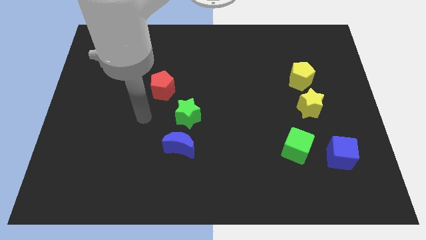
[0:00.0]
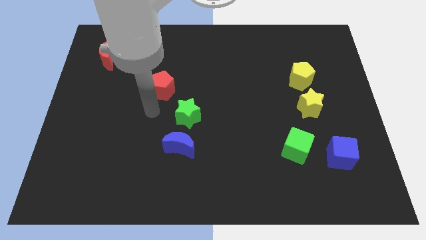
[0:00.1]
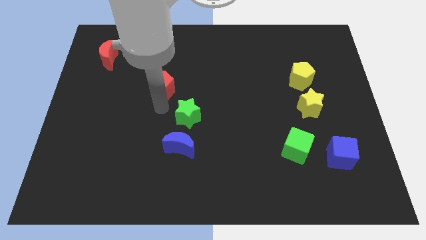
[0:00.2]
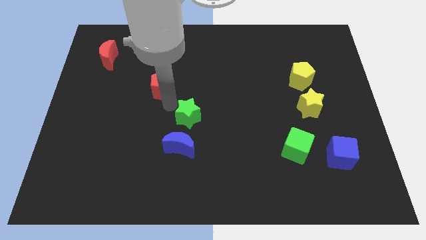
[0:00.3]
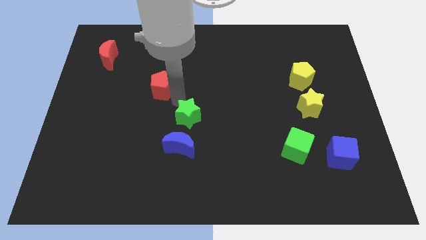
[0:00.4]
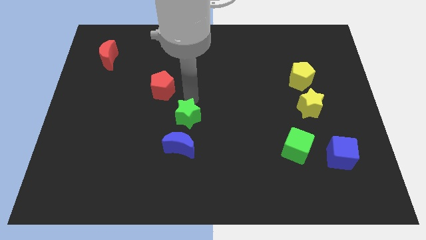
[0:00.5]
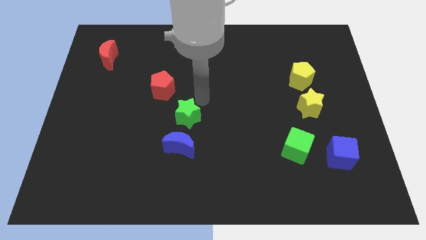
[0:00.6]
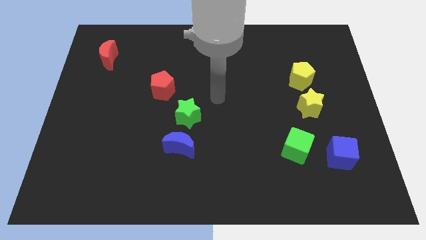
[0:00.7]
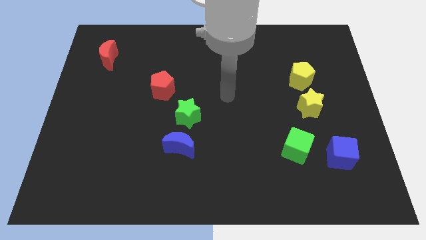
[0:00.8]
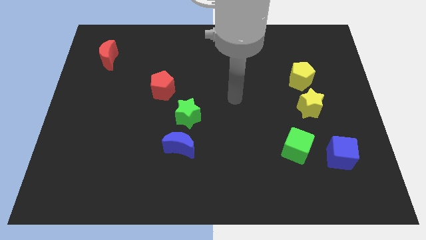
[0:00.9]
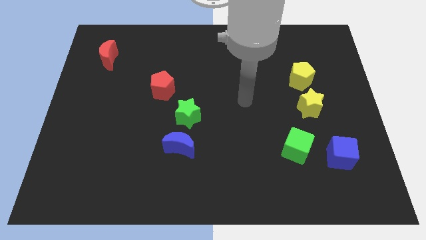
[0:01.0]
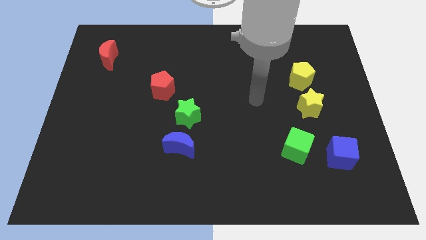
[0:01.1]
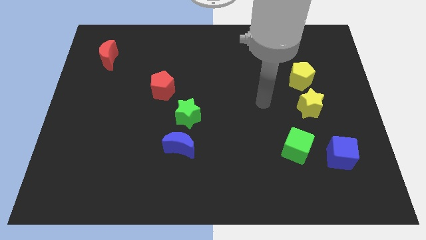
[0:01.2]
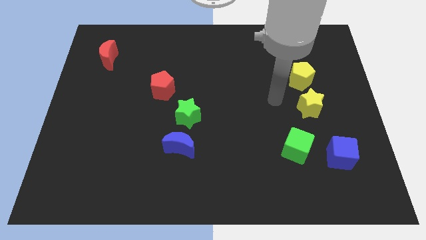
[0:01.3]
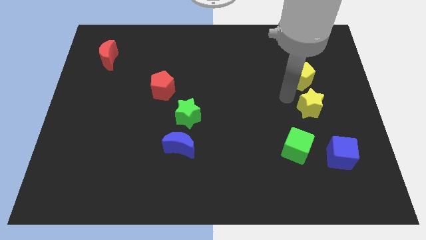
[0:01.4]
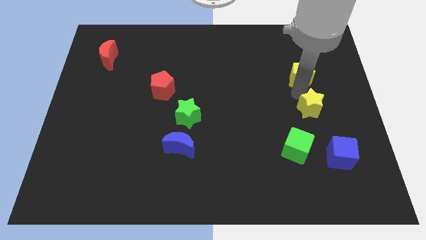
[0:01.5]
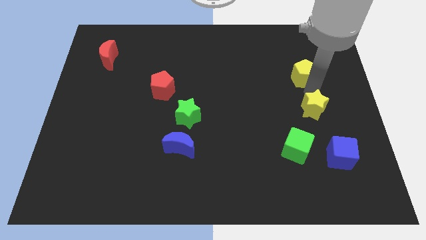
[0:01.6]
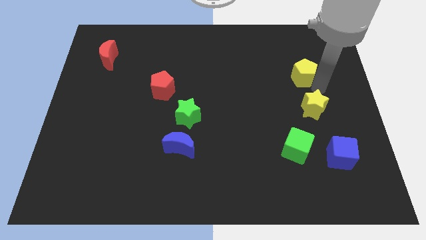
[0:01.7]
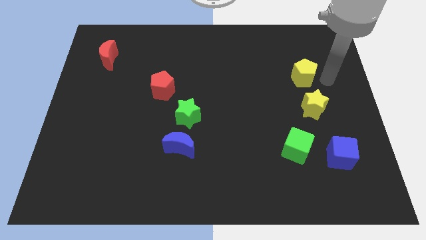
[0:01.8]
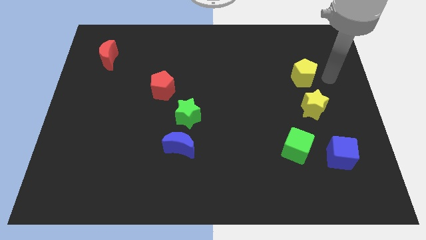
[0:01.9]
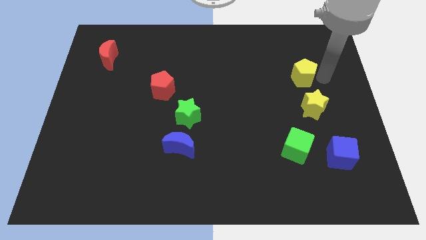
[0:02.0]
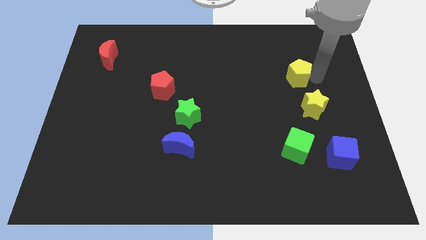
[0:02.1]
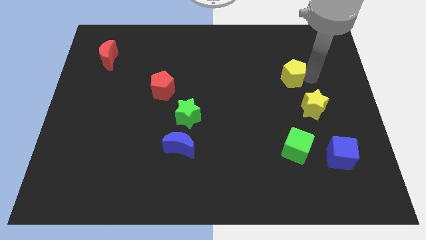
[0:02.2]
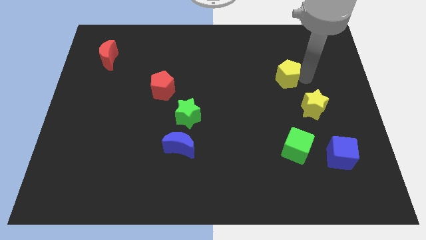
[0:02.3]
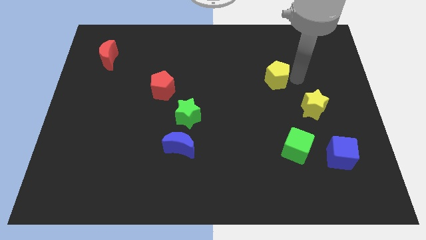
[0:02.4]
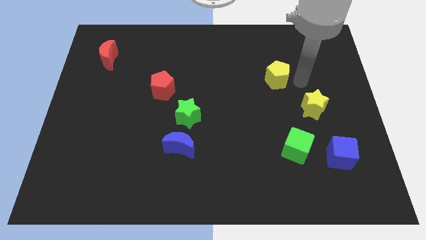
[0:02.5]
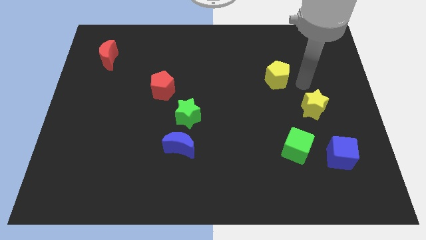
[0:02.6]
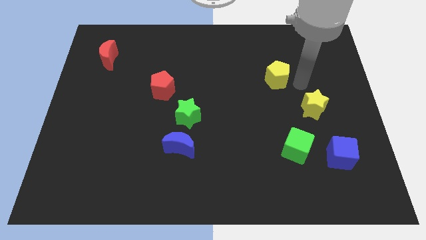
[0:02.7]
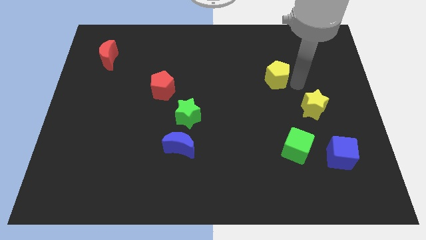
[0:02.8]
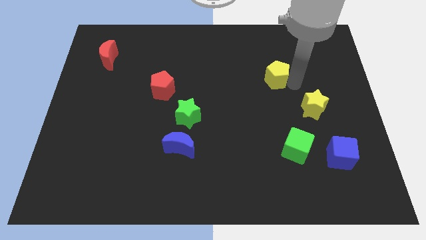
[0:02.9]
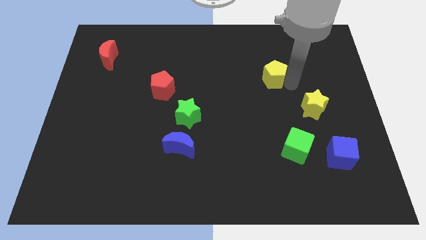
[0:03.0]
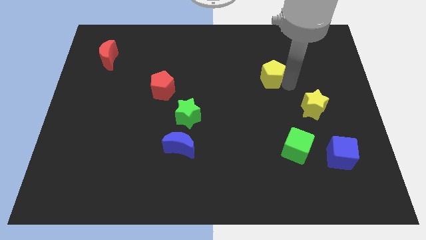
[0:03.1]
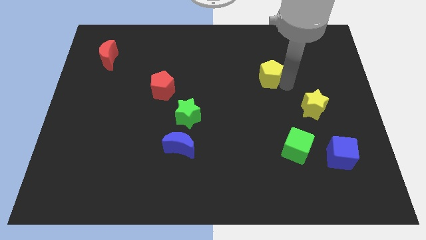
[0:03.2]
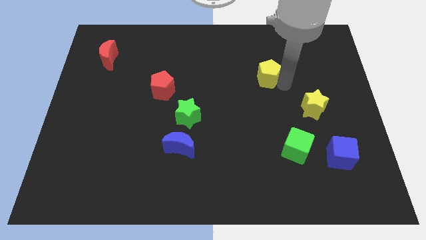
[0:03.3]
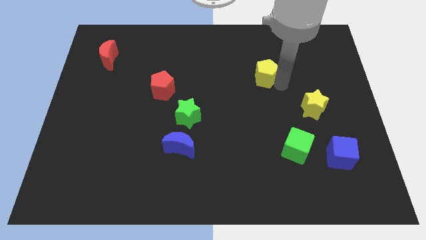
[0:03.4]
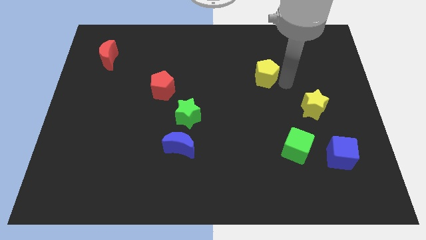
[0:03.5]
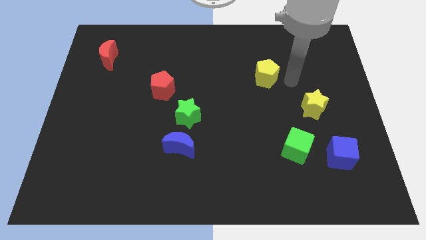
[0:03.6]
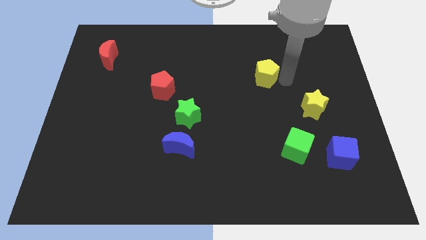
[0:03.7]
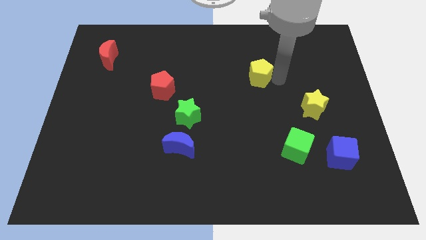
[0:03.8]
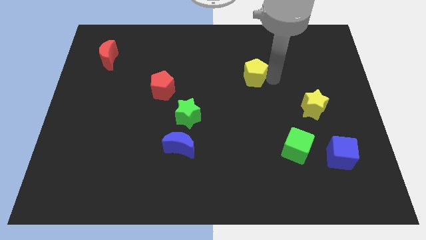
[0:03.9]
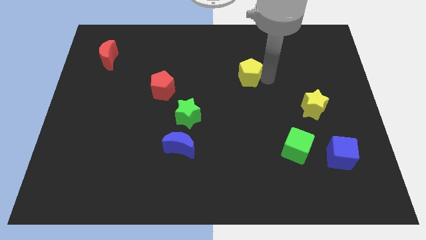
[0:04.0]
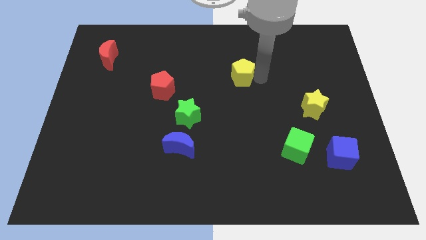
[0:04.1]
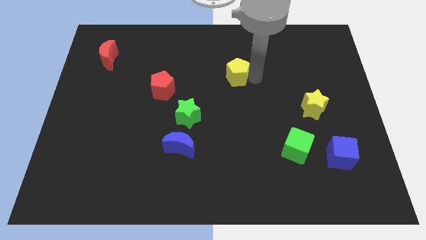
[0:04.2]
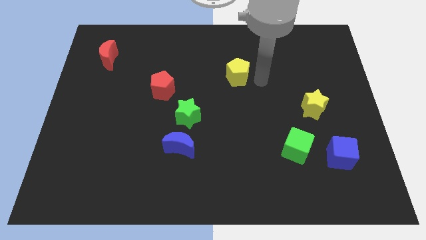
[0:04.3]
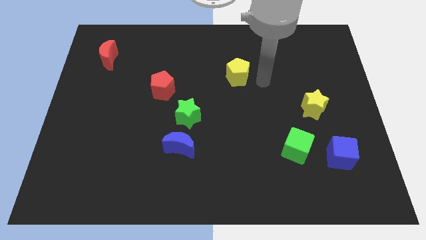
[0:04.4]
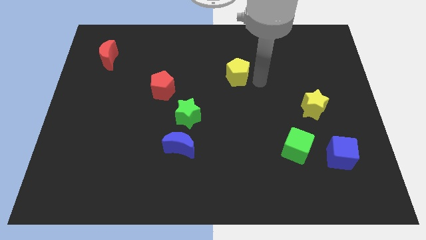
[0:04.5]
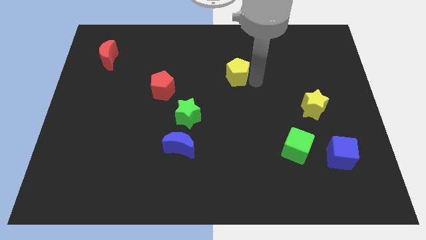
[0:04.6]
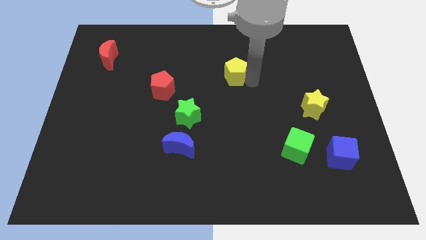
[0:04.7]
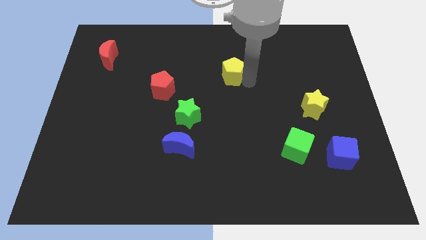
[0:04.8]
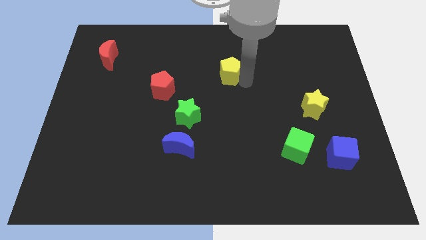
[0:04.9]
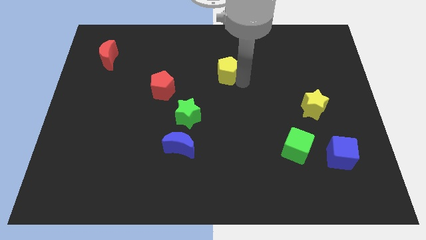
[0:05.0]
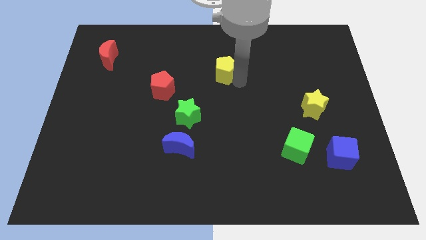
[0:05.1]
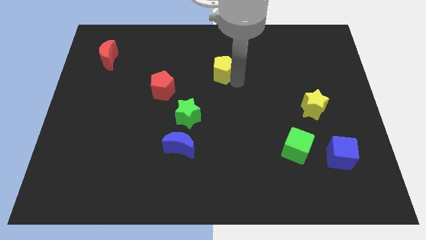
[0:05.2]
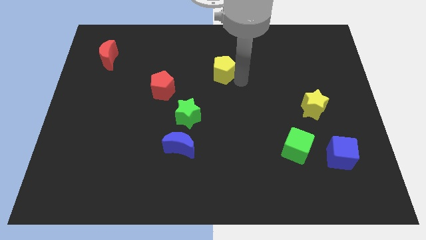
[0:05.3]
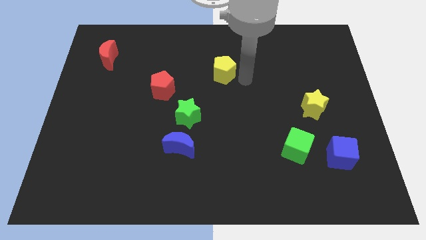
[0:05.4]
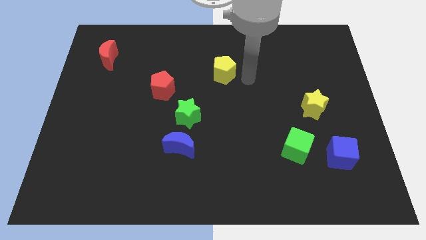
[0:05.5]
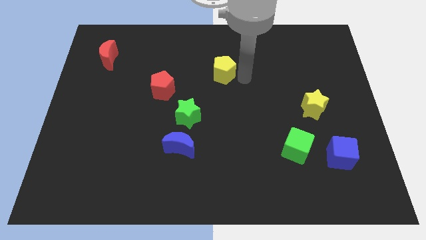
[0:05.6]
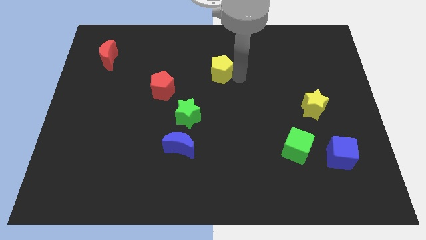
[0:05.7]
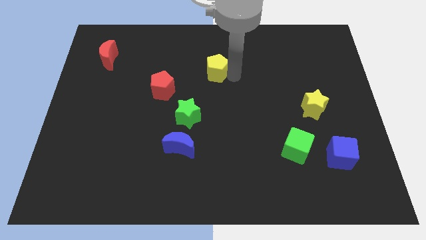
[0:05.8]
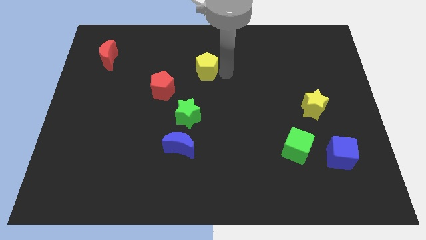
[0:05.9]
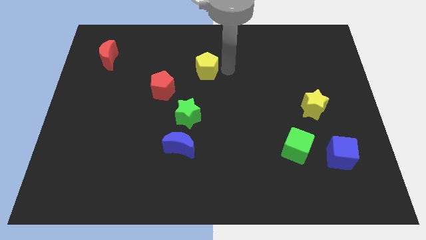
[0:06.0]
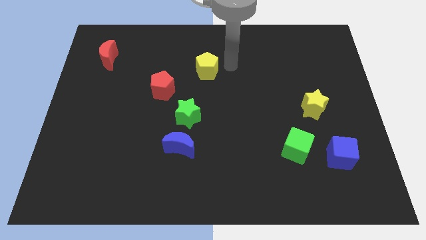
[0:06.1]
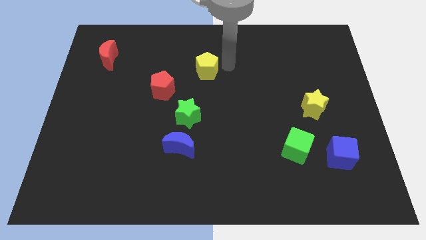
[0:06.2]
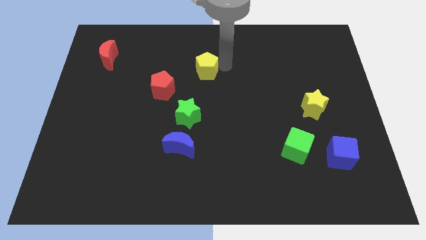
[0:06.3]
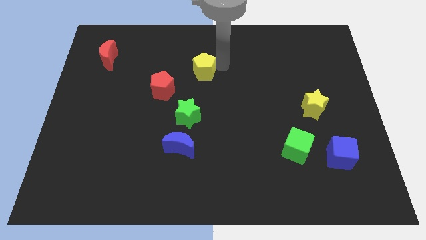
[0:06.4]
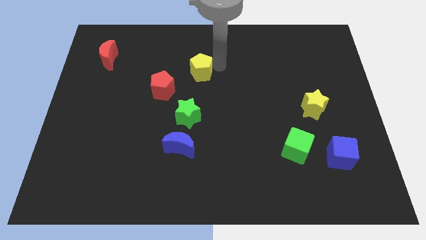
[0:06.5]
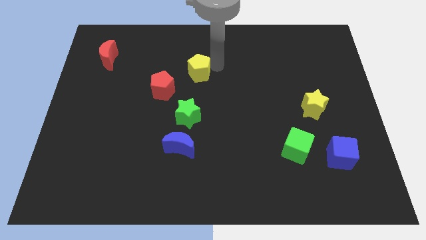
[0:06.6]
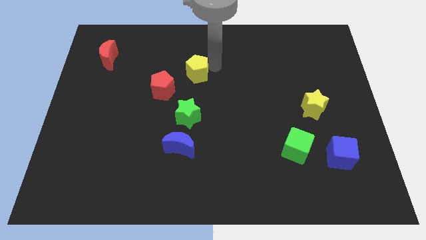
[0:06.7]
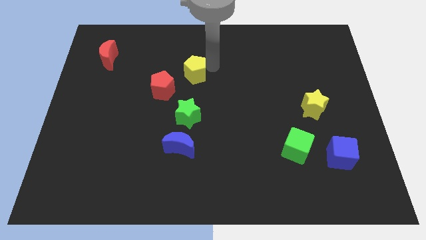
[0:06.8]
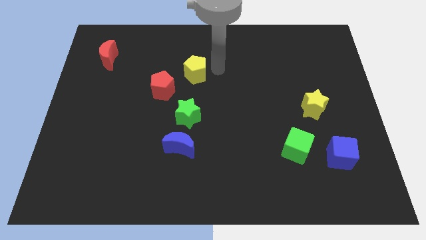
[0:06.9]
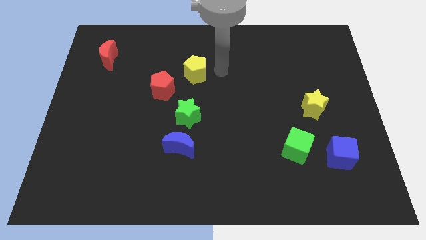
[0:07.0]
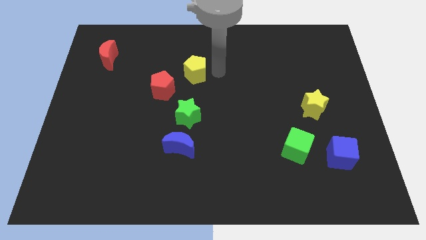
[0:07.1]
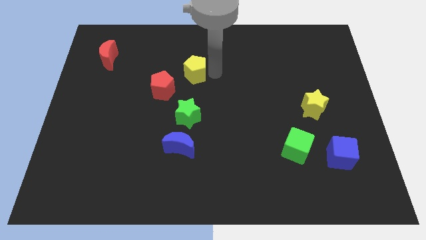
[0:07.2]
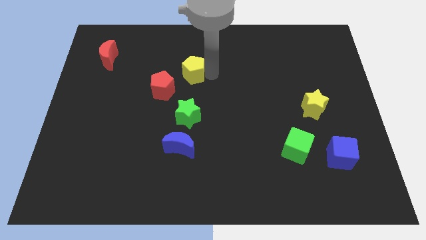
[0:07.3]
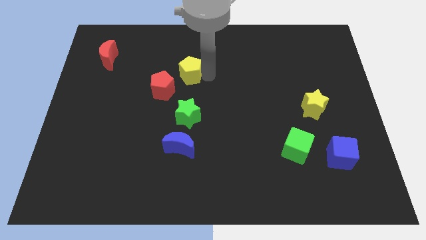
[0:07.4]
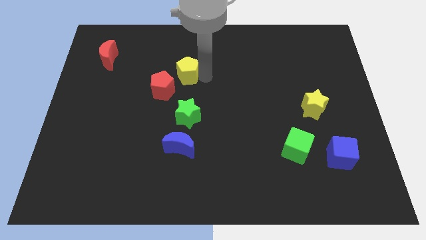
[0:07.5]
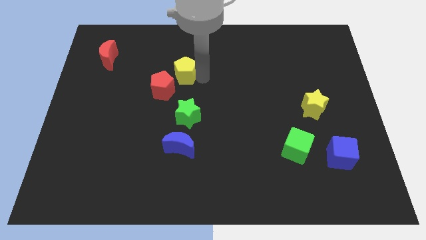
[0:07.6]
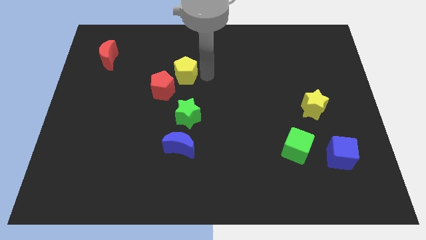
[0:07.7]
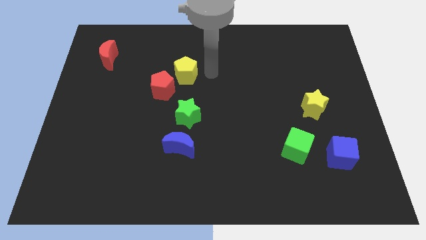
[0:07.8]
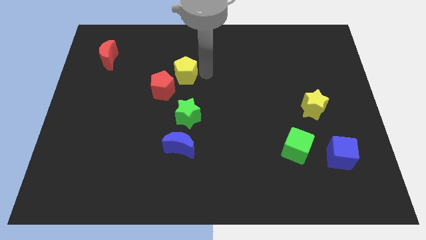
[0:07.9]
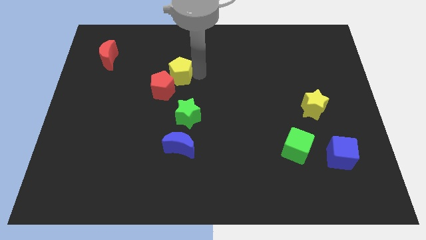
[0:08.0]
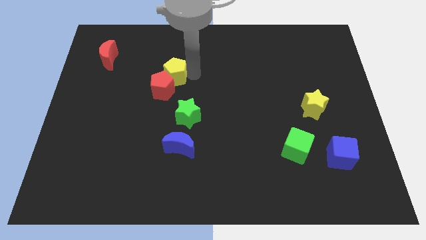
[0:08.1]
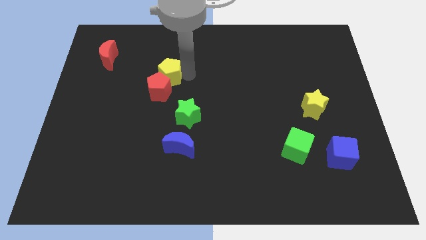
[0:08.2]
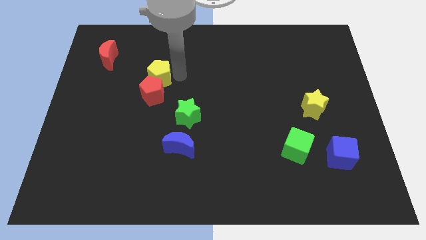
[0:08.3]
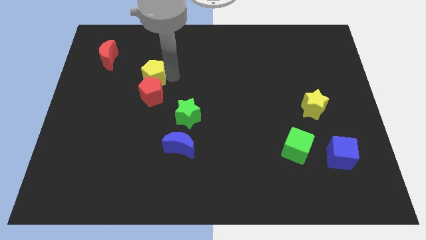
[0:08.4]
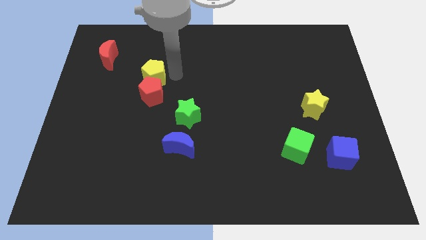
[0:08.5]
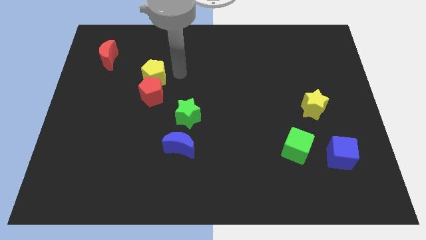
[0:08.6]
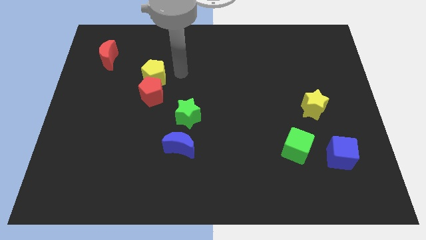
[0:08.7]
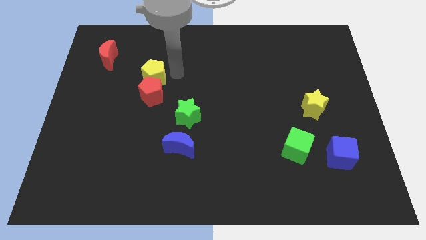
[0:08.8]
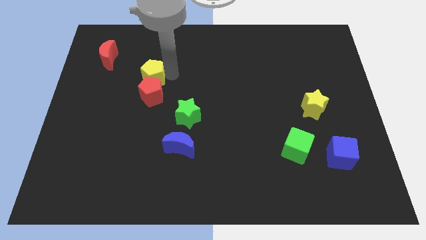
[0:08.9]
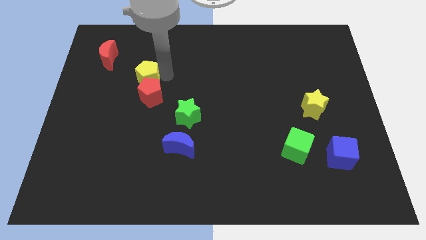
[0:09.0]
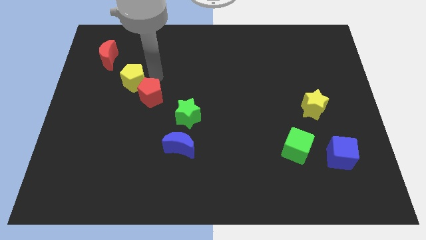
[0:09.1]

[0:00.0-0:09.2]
put the yellow pentagon just left of the red pentagon
